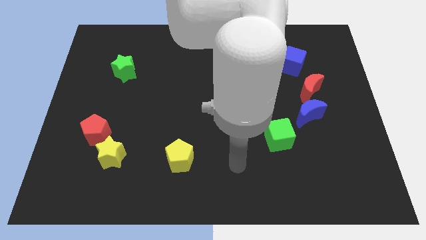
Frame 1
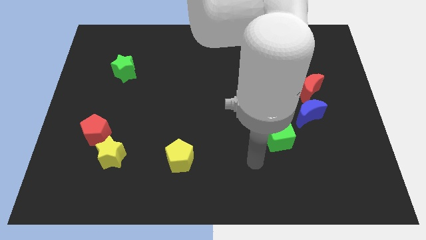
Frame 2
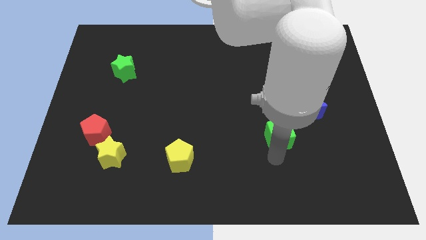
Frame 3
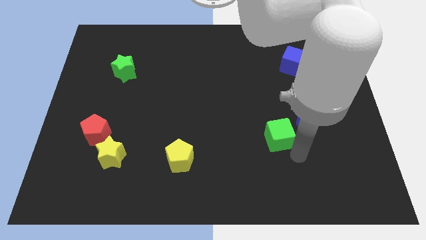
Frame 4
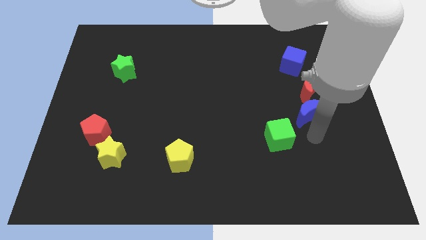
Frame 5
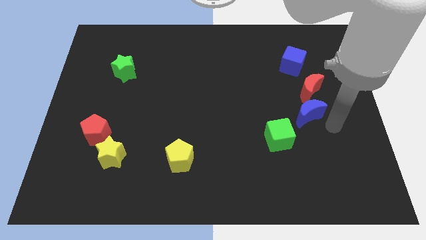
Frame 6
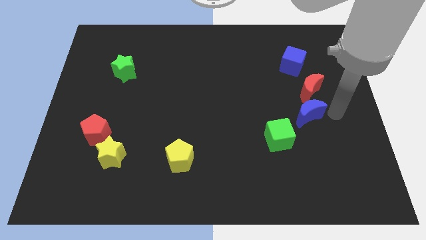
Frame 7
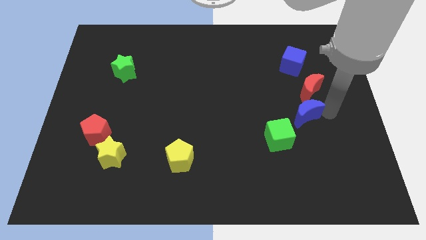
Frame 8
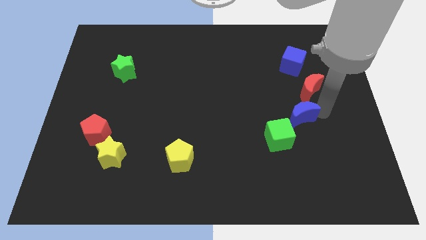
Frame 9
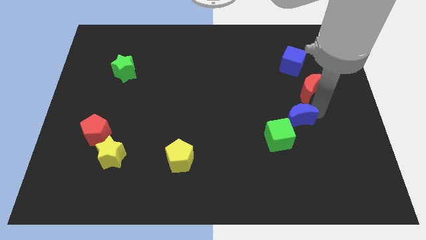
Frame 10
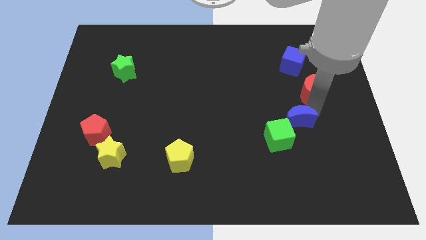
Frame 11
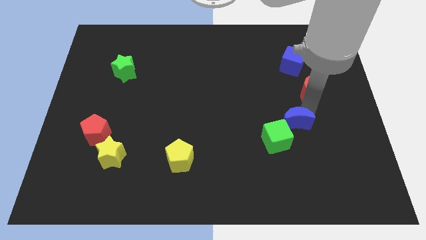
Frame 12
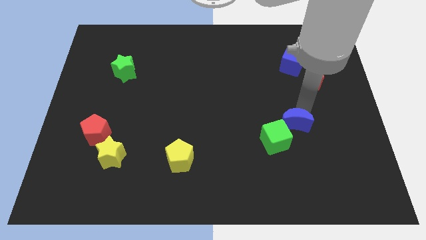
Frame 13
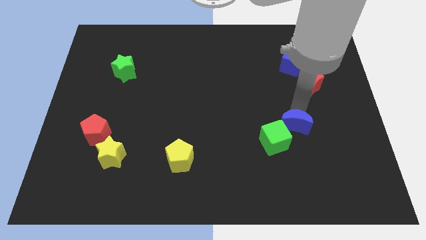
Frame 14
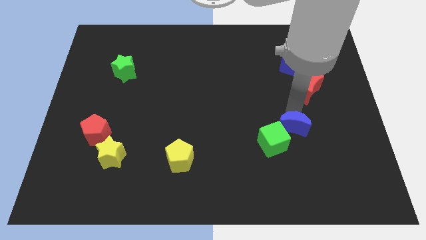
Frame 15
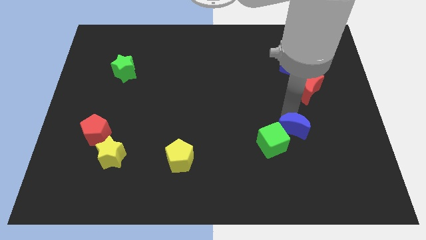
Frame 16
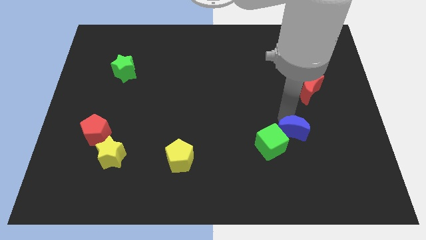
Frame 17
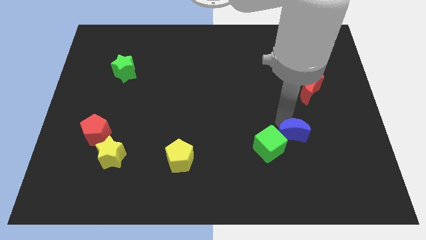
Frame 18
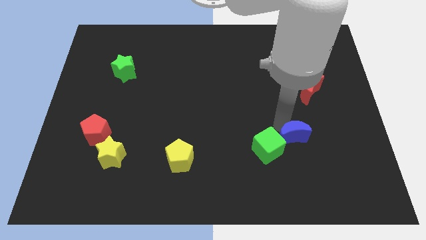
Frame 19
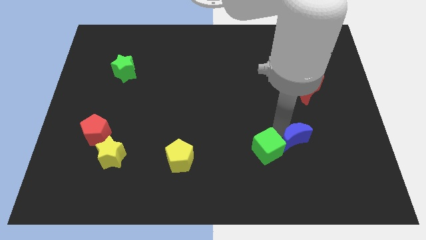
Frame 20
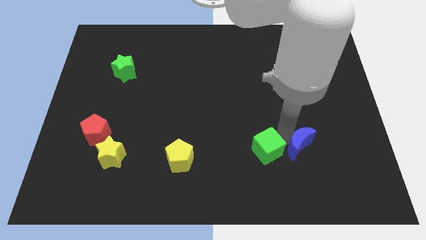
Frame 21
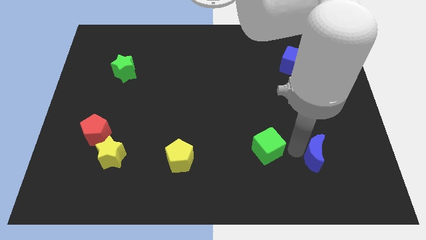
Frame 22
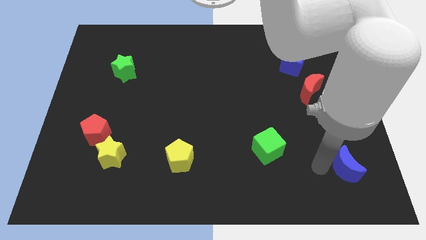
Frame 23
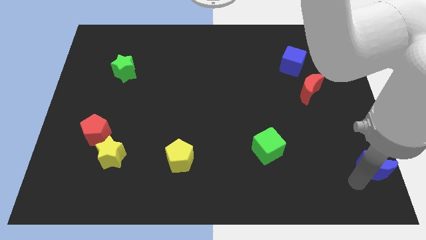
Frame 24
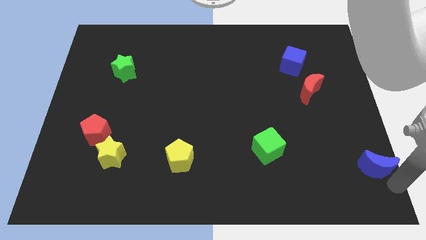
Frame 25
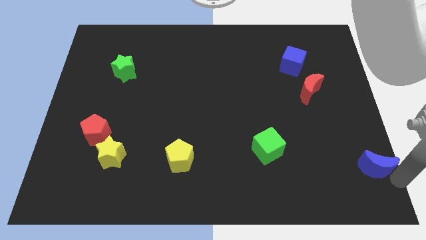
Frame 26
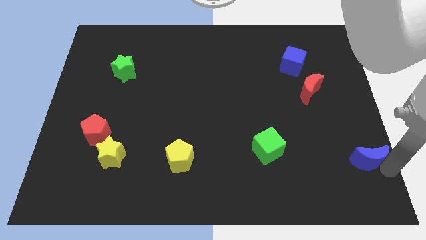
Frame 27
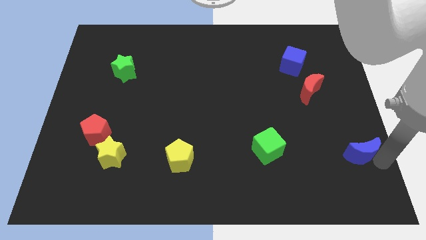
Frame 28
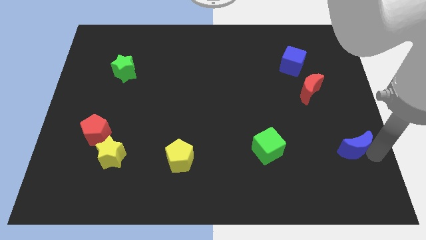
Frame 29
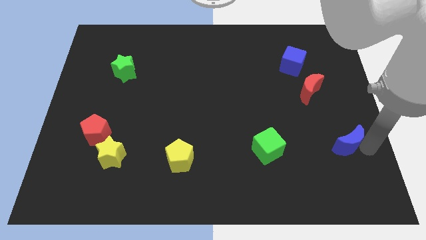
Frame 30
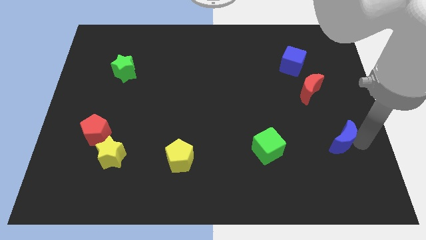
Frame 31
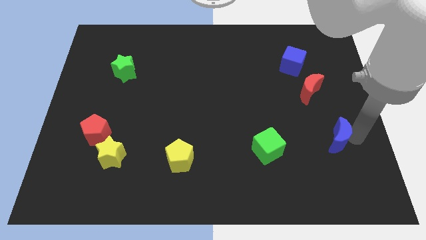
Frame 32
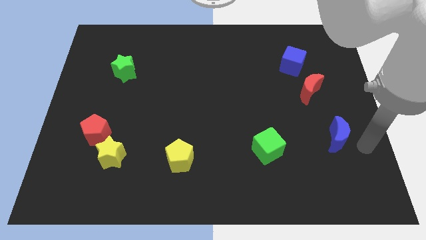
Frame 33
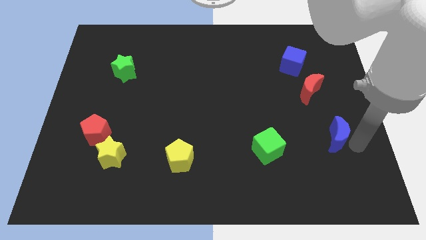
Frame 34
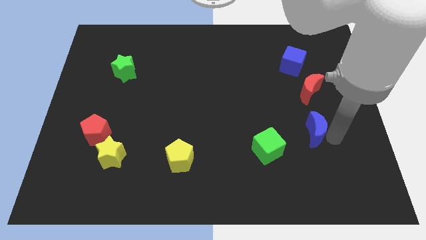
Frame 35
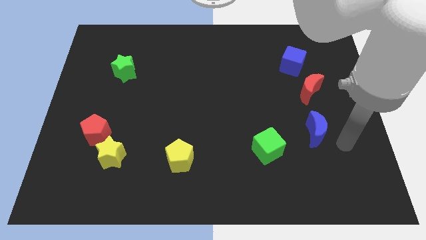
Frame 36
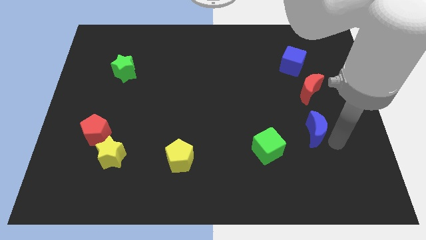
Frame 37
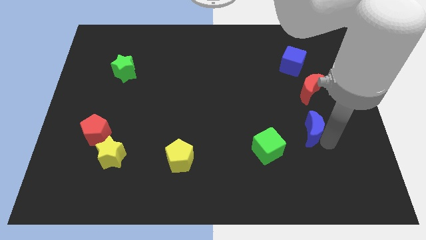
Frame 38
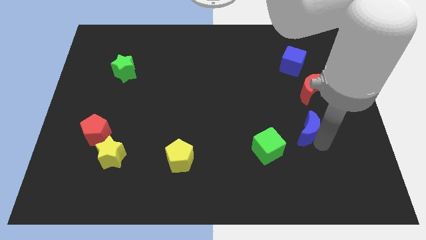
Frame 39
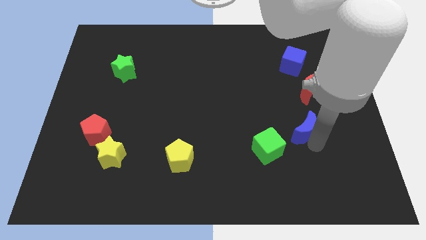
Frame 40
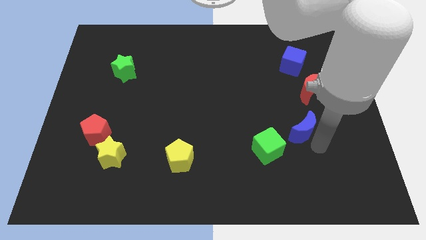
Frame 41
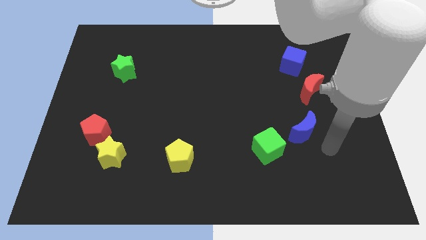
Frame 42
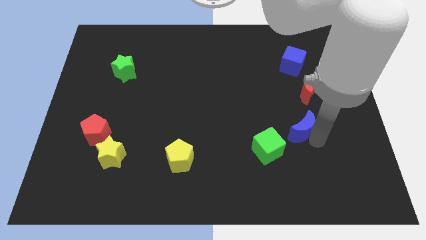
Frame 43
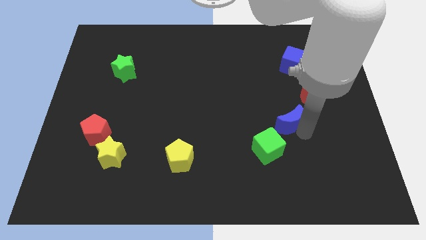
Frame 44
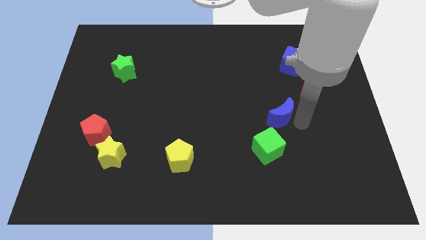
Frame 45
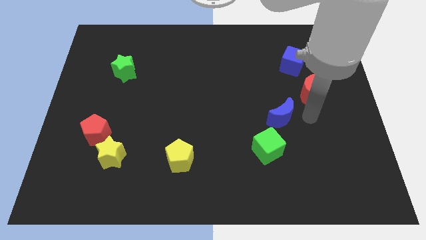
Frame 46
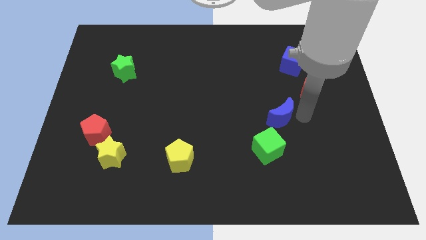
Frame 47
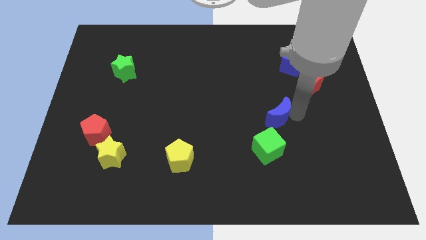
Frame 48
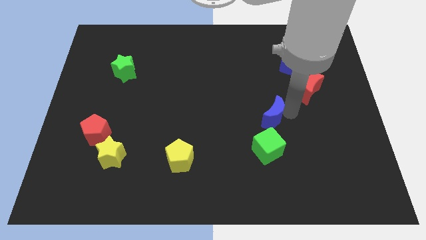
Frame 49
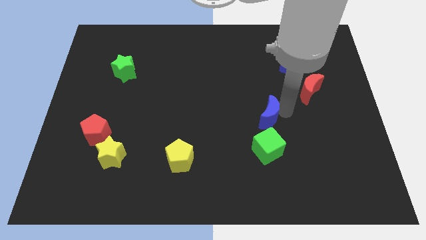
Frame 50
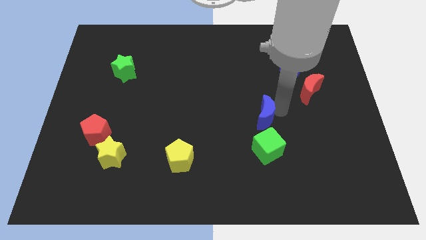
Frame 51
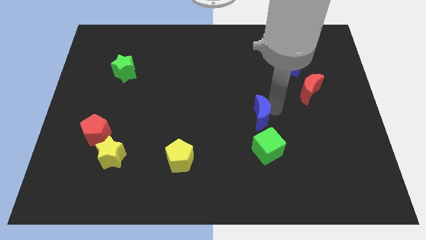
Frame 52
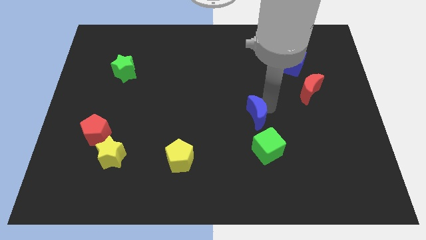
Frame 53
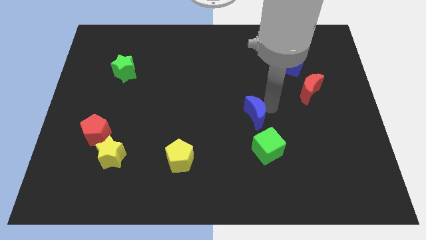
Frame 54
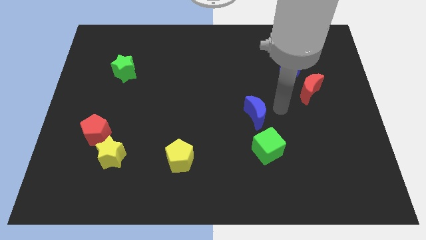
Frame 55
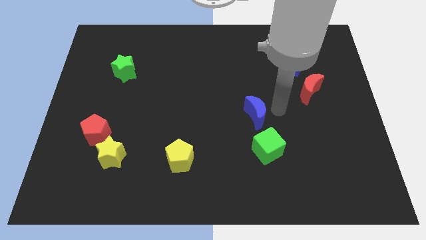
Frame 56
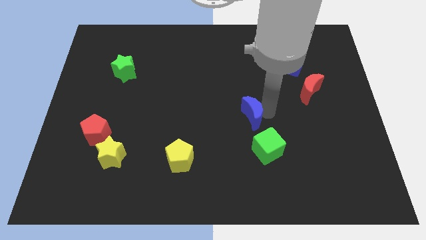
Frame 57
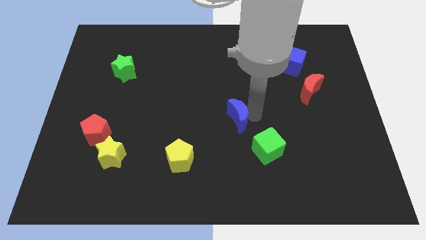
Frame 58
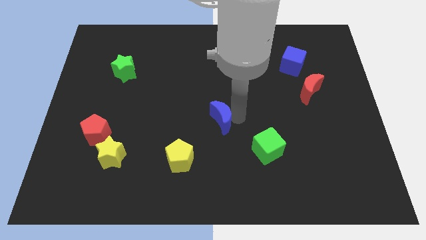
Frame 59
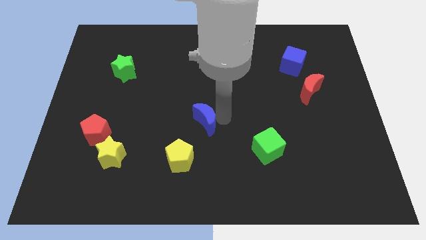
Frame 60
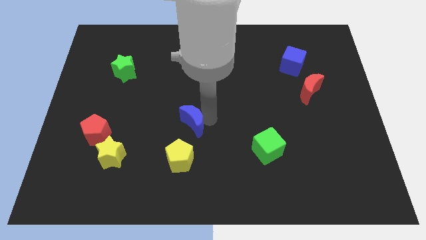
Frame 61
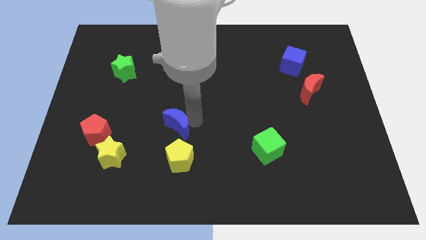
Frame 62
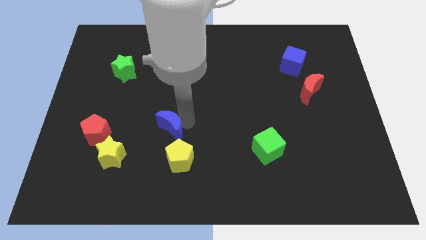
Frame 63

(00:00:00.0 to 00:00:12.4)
slide the blue moon diagonally up and to the left of the yellow pentagon

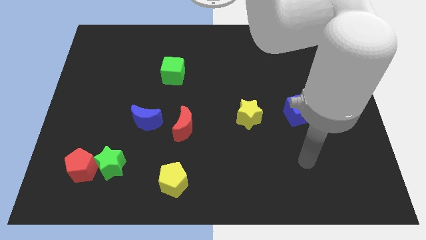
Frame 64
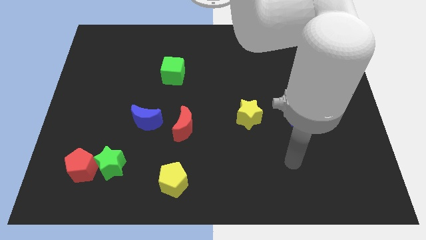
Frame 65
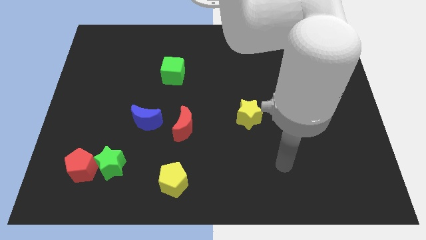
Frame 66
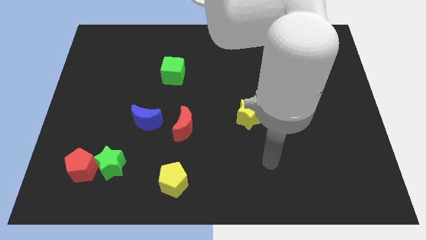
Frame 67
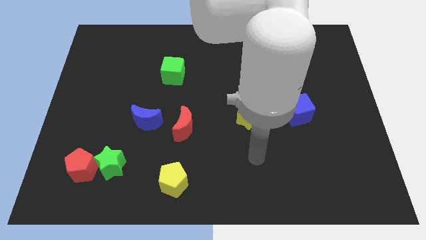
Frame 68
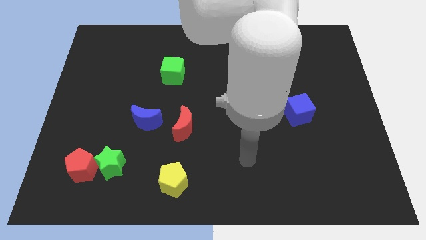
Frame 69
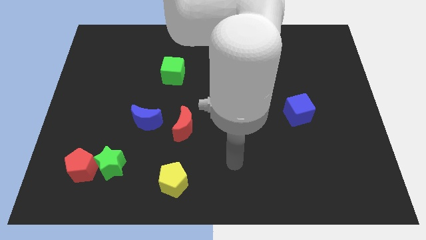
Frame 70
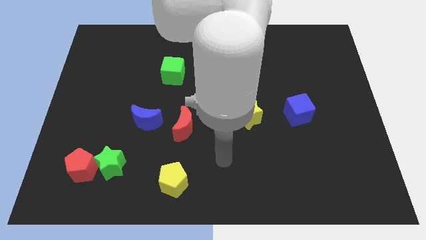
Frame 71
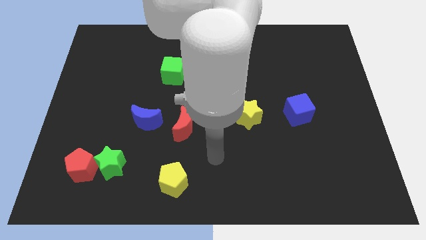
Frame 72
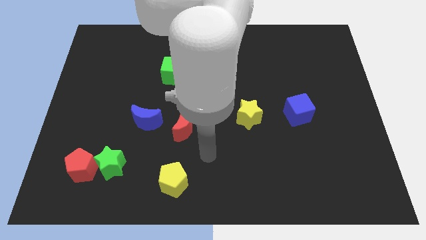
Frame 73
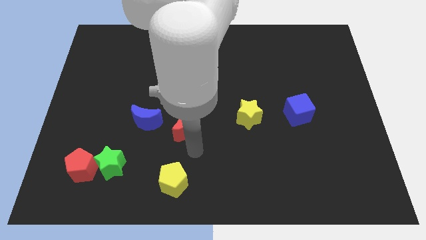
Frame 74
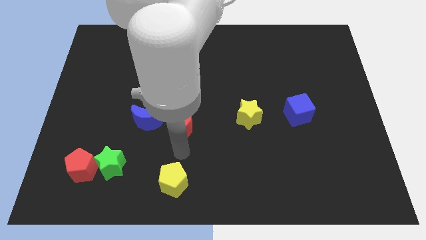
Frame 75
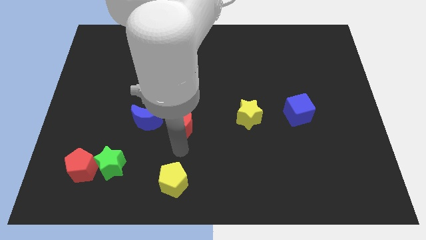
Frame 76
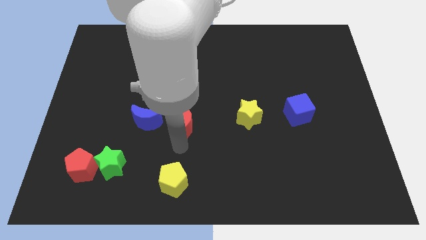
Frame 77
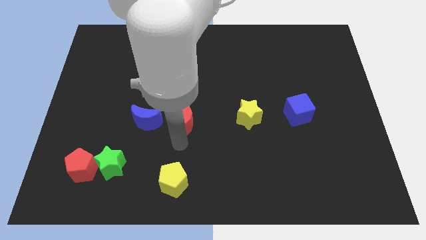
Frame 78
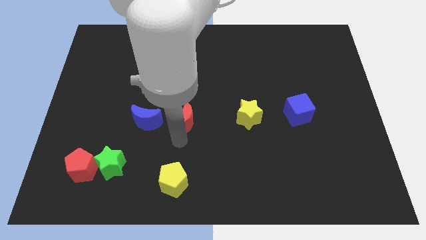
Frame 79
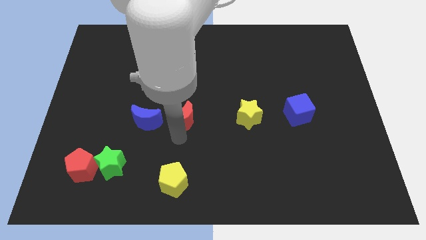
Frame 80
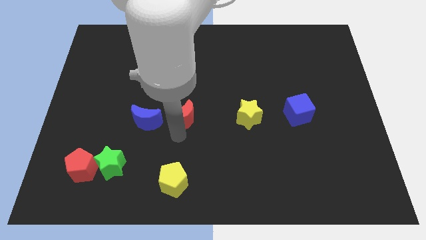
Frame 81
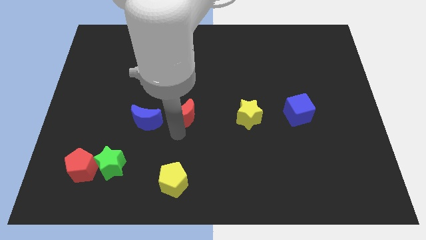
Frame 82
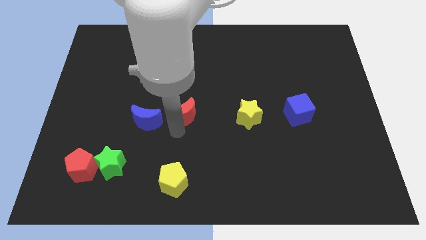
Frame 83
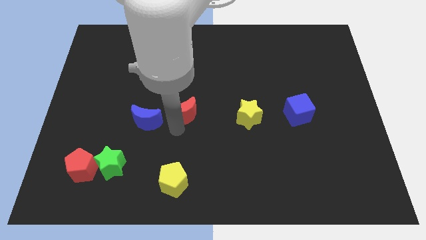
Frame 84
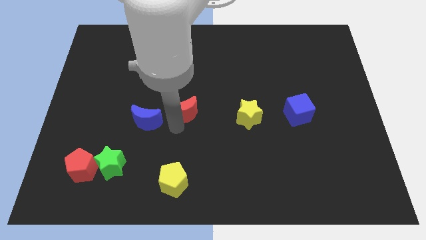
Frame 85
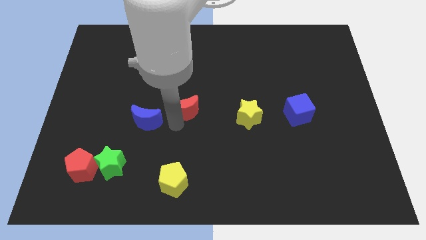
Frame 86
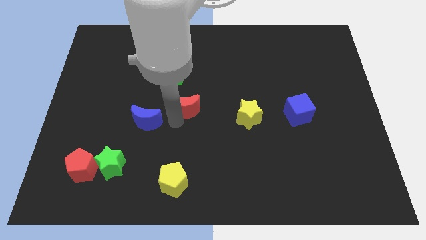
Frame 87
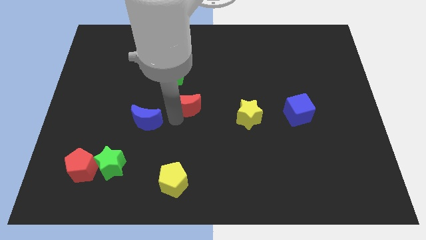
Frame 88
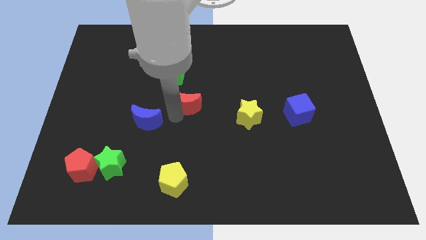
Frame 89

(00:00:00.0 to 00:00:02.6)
push the red moon to the bottom right side of the green cube
